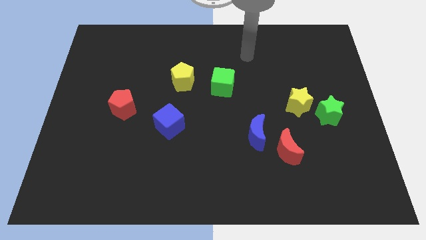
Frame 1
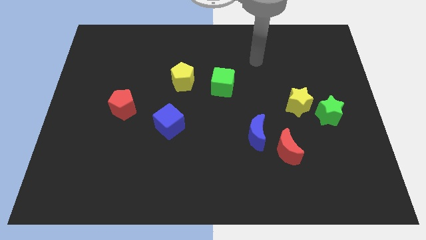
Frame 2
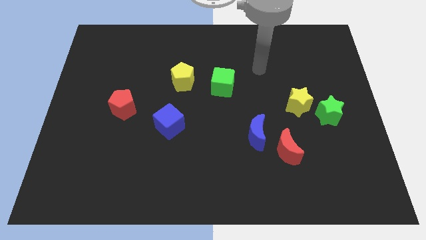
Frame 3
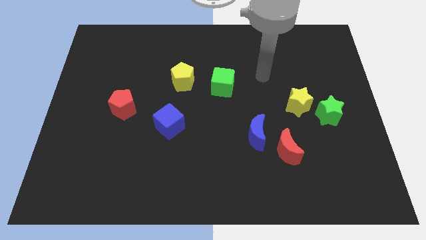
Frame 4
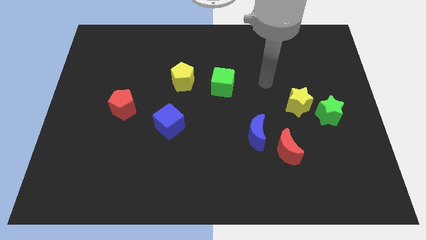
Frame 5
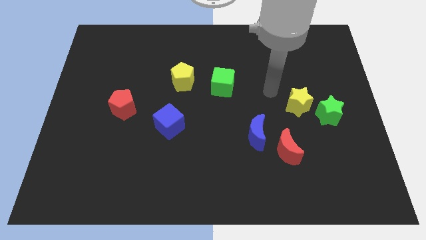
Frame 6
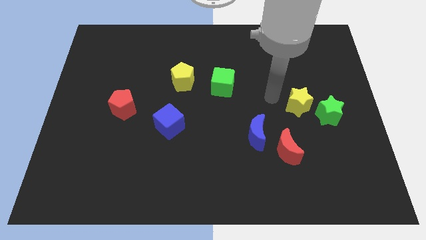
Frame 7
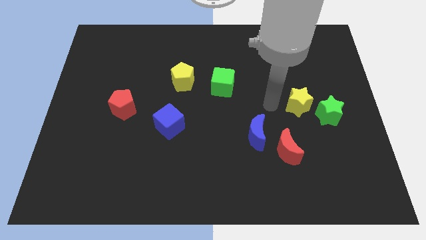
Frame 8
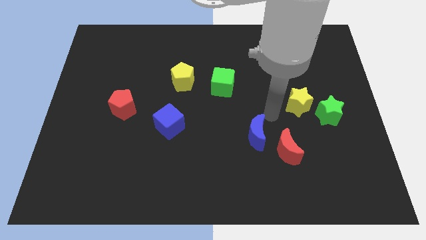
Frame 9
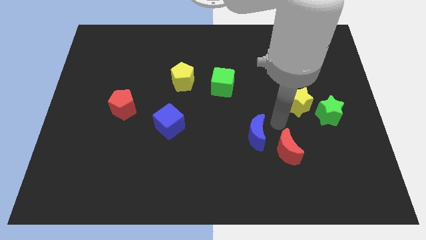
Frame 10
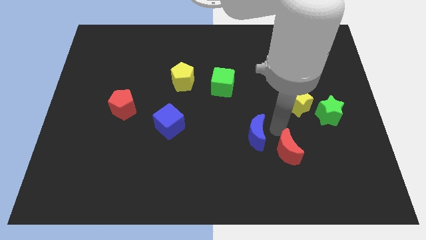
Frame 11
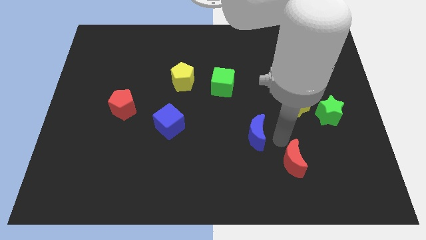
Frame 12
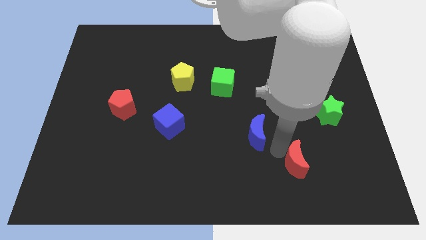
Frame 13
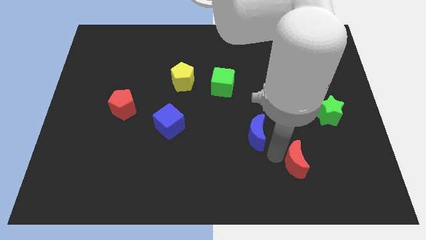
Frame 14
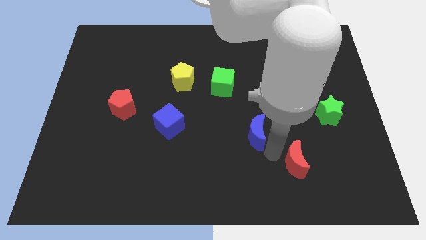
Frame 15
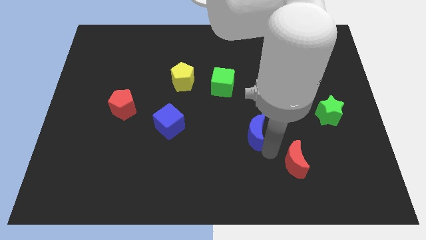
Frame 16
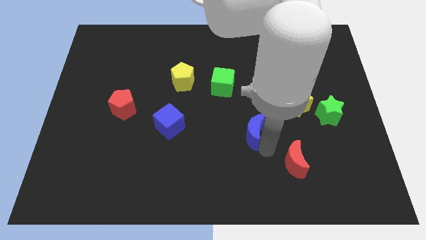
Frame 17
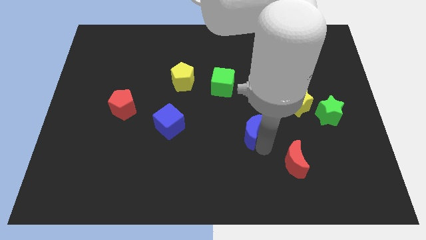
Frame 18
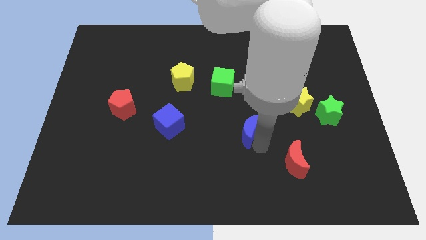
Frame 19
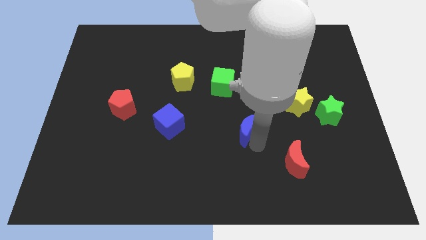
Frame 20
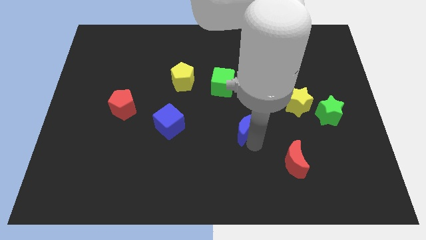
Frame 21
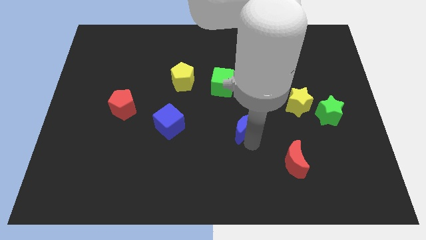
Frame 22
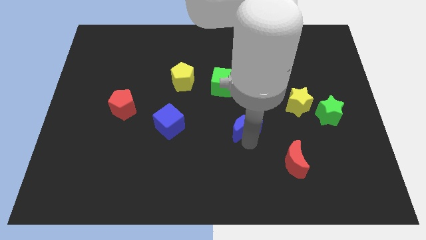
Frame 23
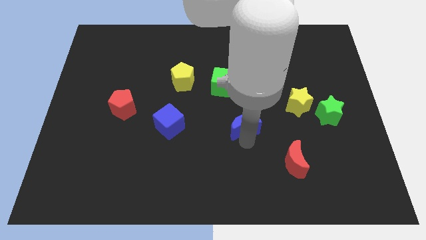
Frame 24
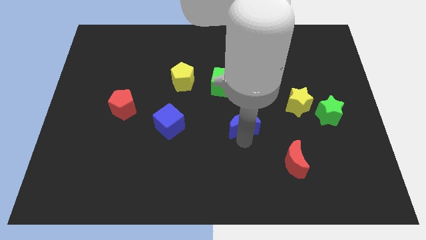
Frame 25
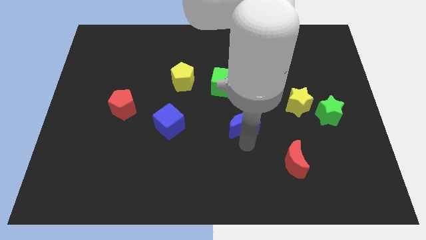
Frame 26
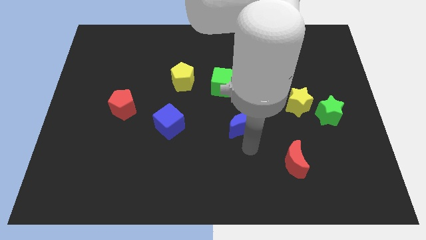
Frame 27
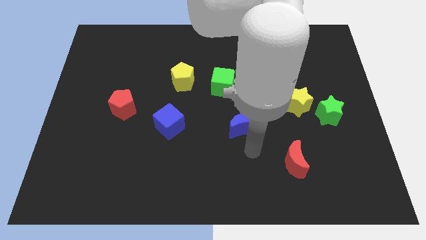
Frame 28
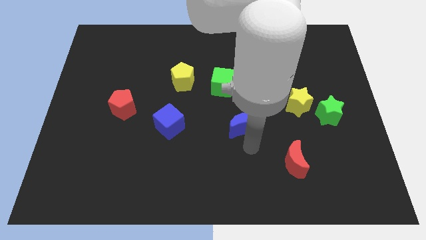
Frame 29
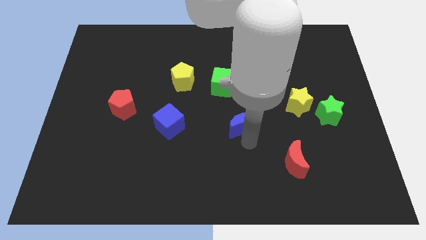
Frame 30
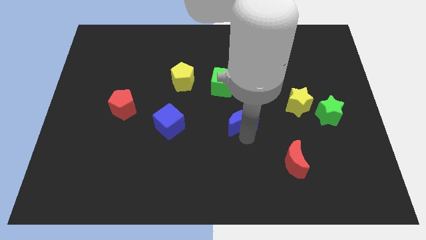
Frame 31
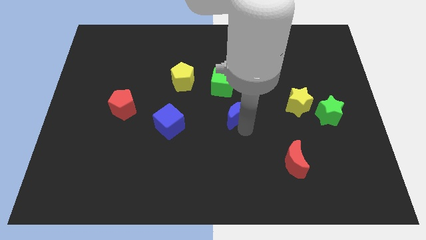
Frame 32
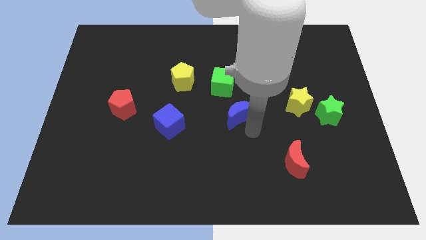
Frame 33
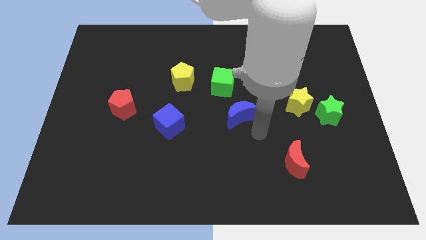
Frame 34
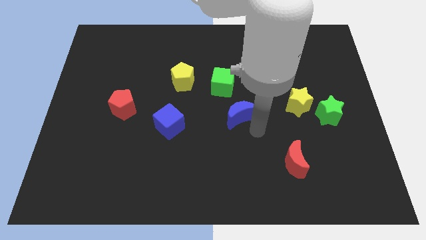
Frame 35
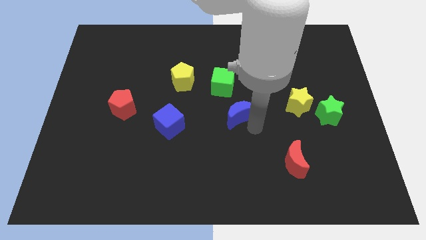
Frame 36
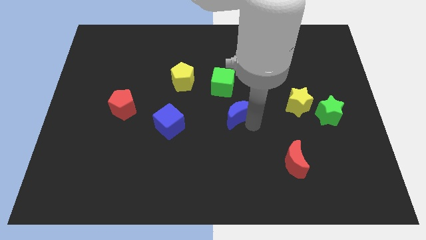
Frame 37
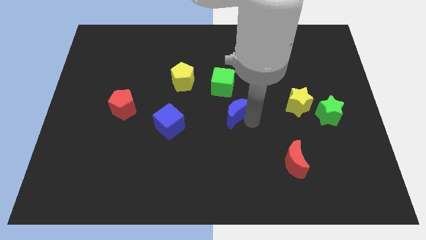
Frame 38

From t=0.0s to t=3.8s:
move the blue moon a bit up and to the left diagonally

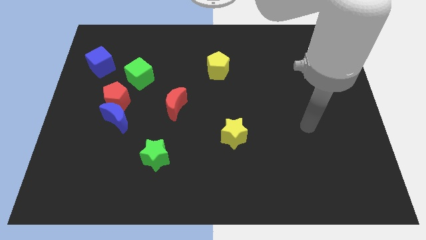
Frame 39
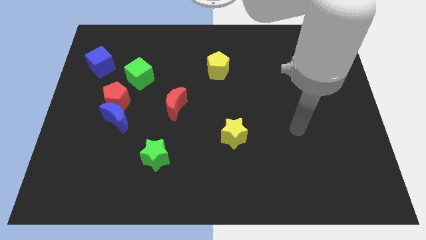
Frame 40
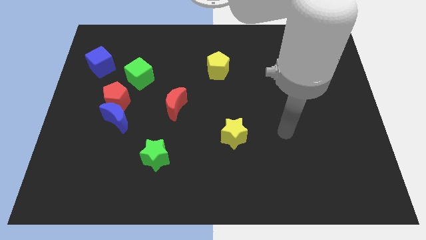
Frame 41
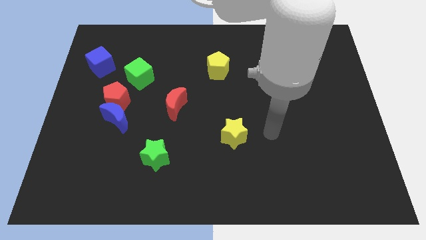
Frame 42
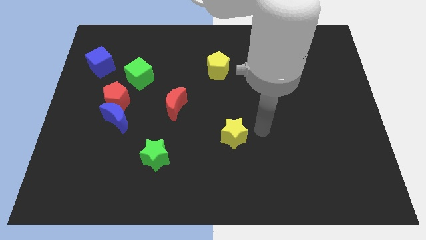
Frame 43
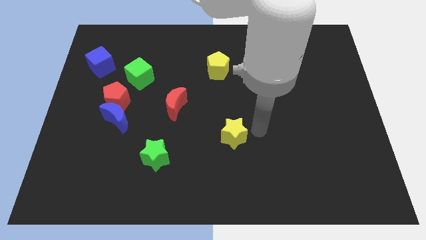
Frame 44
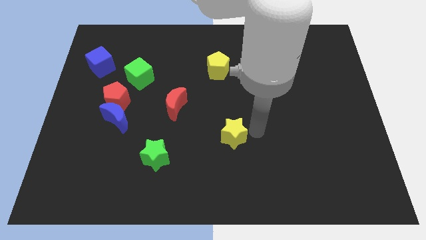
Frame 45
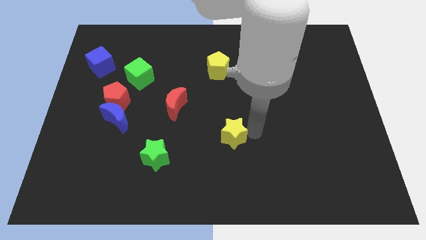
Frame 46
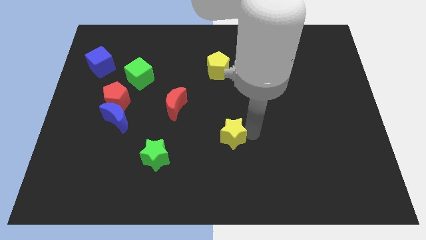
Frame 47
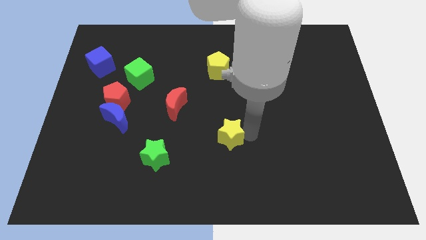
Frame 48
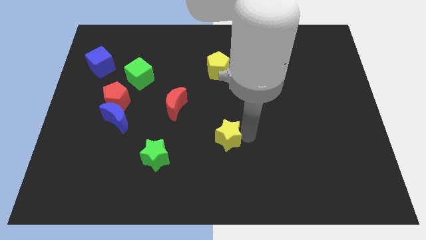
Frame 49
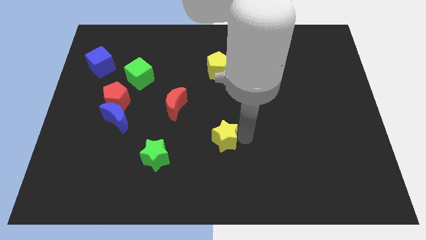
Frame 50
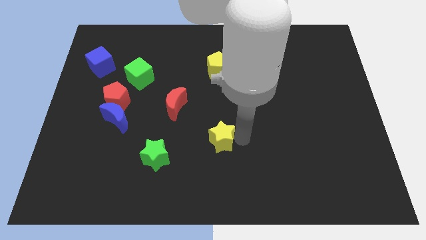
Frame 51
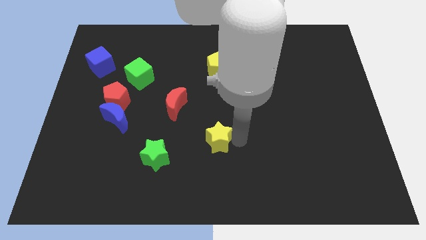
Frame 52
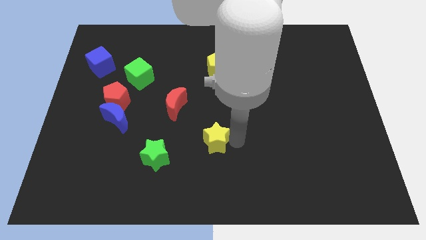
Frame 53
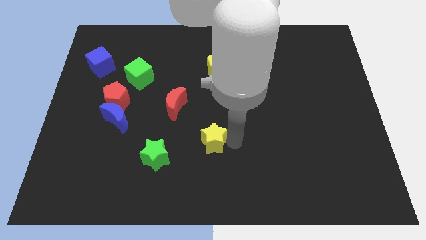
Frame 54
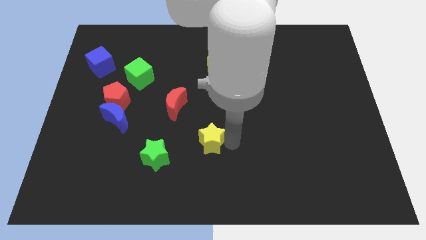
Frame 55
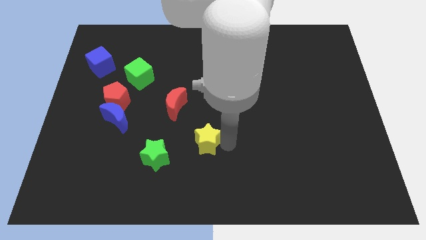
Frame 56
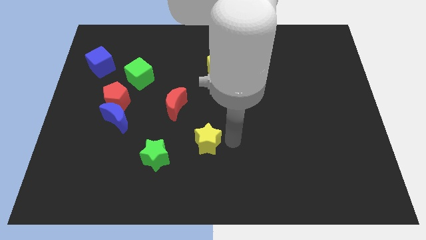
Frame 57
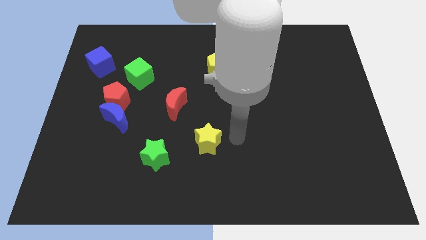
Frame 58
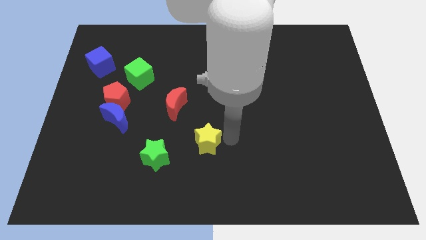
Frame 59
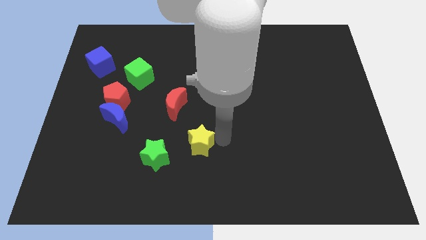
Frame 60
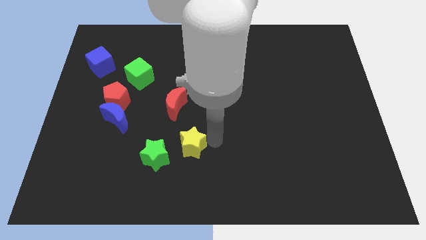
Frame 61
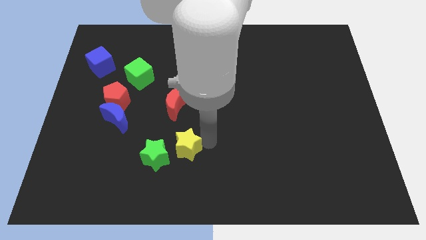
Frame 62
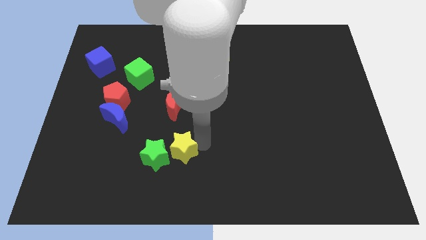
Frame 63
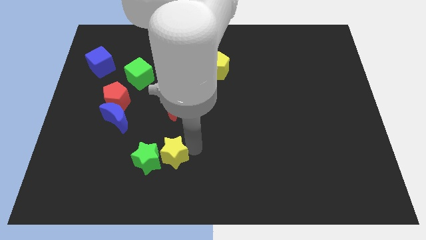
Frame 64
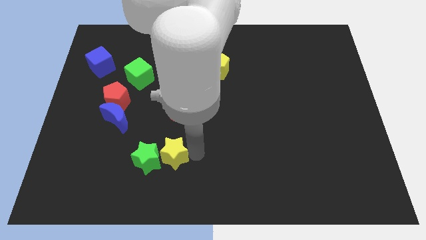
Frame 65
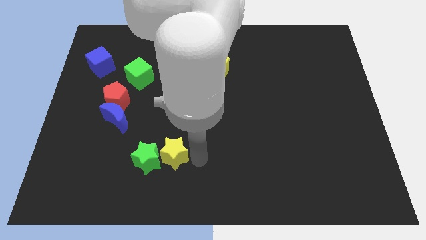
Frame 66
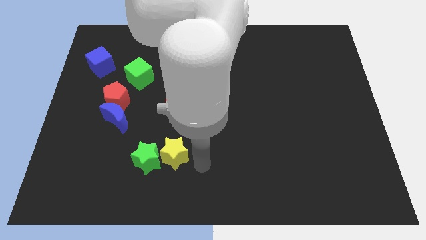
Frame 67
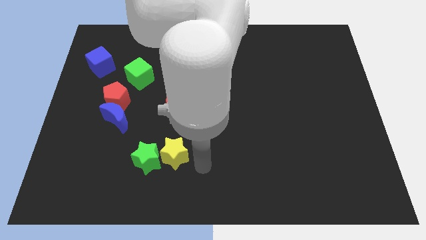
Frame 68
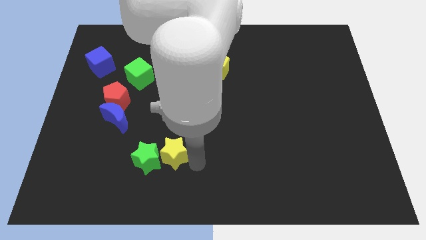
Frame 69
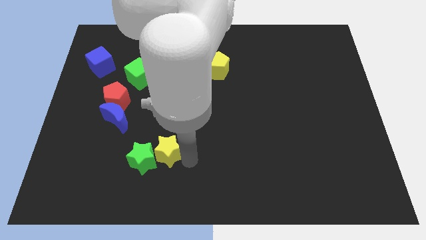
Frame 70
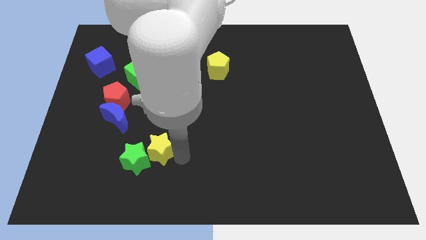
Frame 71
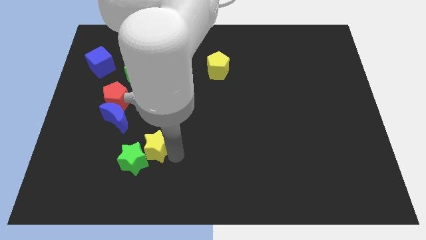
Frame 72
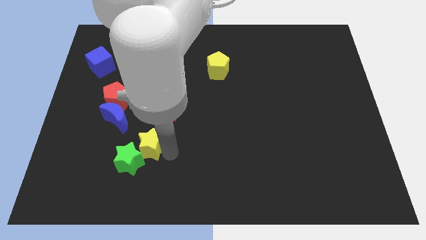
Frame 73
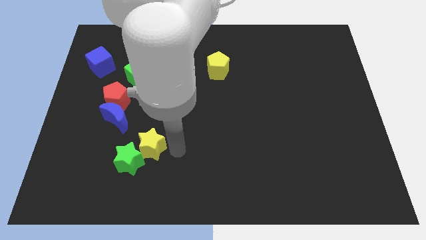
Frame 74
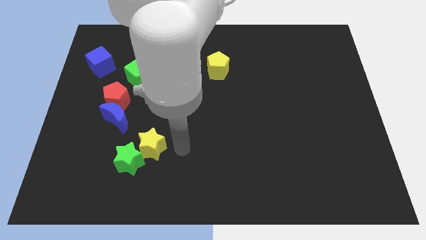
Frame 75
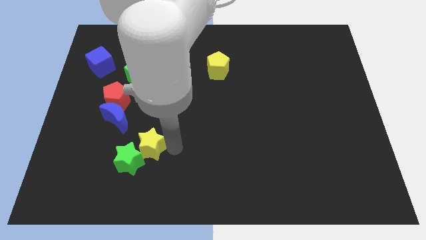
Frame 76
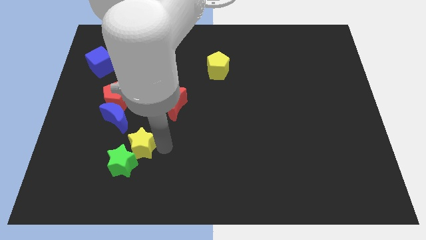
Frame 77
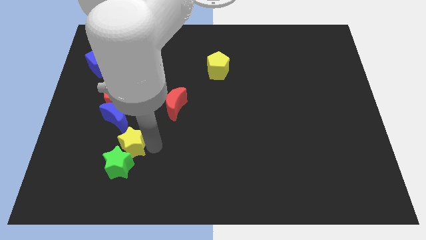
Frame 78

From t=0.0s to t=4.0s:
slide the yellow star left
